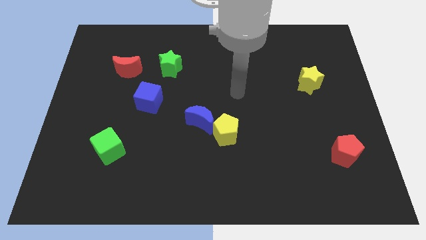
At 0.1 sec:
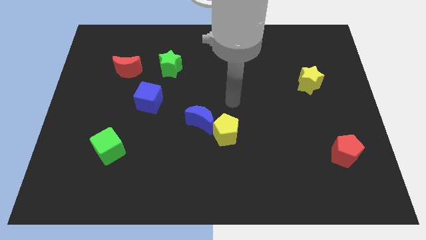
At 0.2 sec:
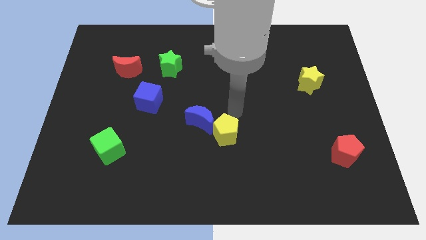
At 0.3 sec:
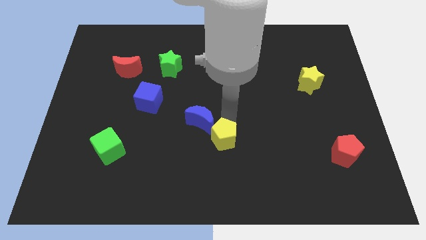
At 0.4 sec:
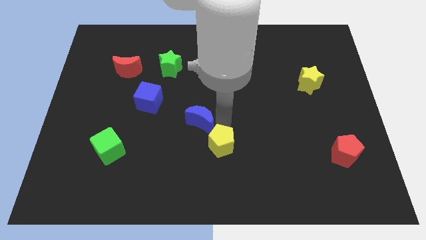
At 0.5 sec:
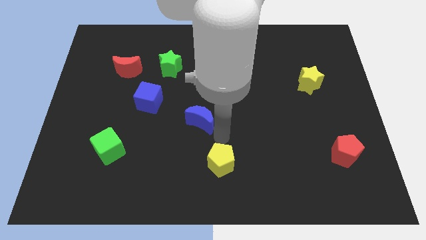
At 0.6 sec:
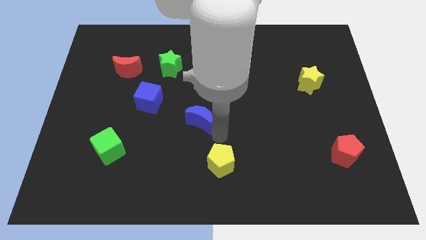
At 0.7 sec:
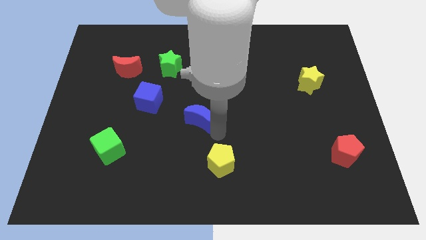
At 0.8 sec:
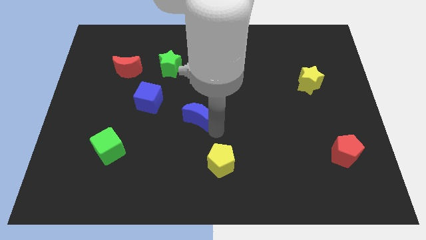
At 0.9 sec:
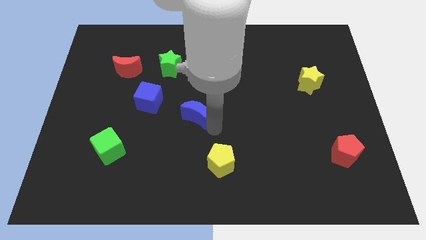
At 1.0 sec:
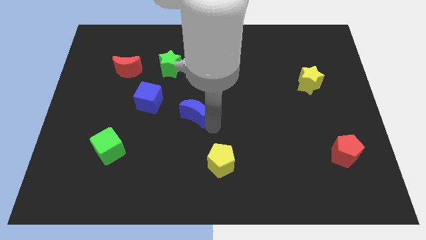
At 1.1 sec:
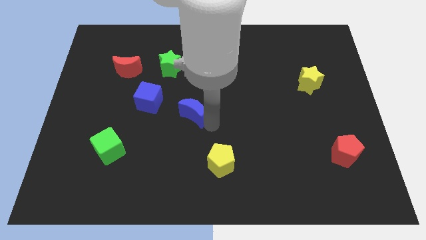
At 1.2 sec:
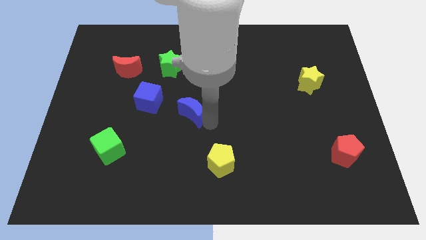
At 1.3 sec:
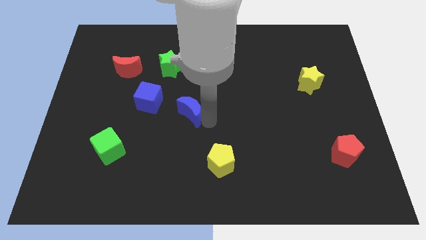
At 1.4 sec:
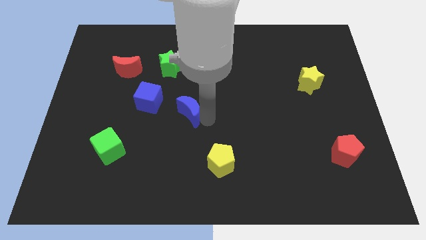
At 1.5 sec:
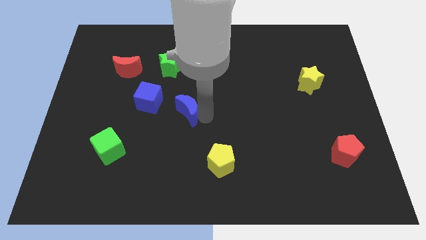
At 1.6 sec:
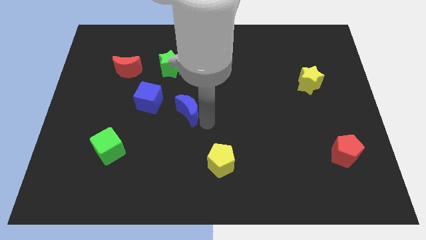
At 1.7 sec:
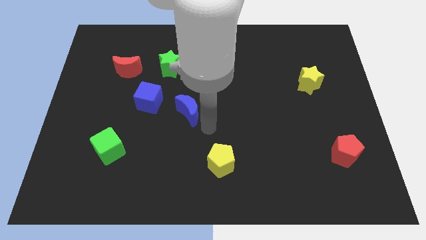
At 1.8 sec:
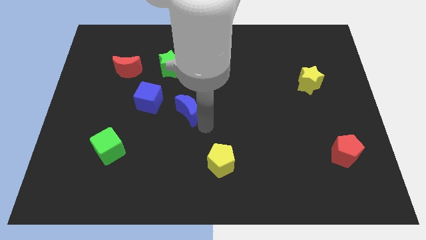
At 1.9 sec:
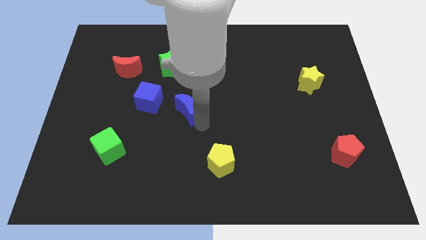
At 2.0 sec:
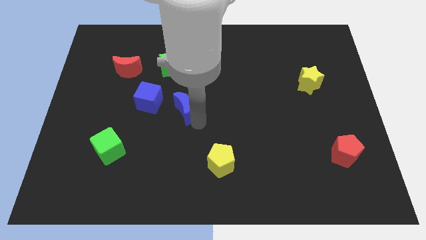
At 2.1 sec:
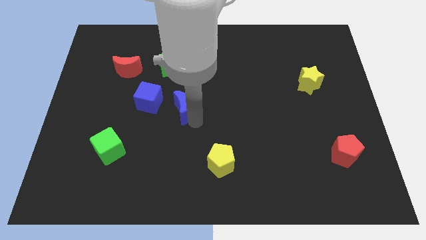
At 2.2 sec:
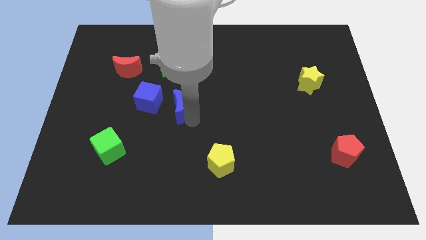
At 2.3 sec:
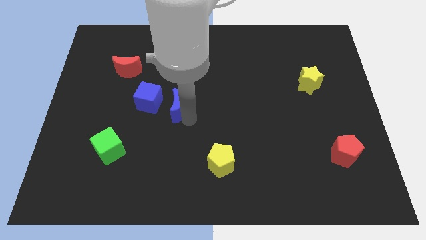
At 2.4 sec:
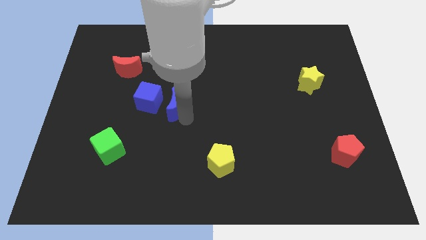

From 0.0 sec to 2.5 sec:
slightly slide the blue moon up and left

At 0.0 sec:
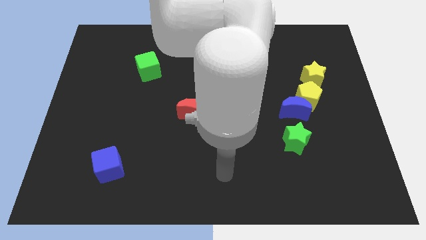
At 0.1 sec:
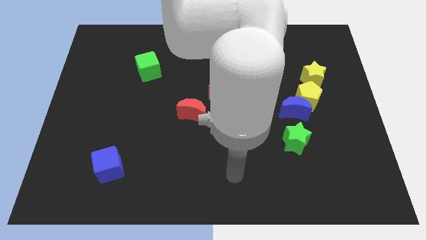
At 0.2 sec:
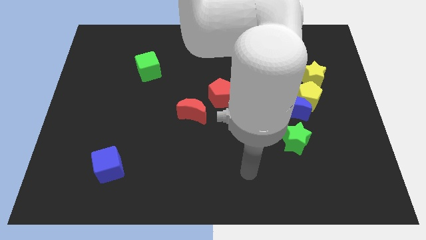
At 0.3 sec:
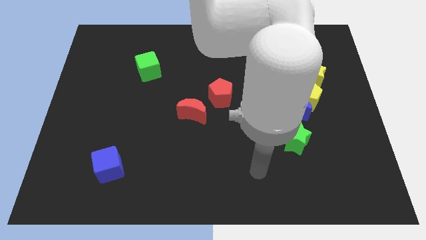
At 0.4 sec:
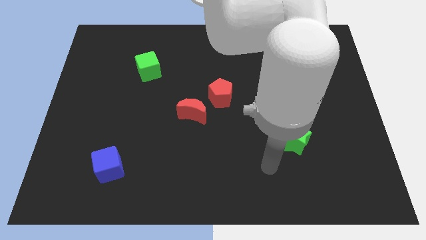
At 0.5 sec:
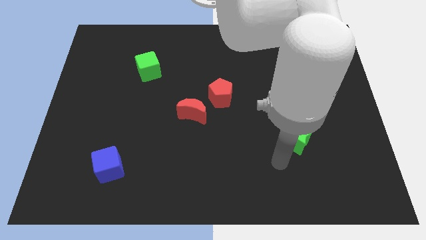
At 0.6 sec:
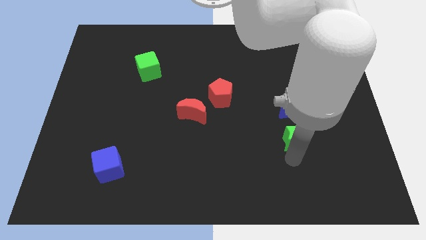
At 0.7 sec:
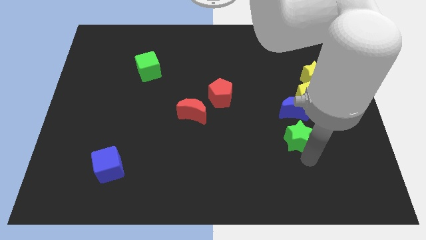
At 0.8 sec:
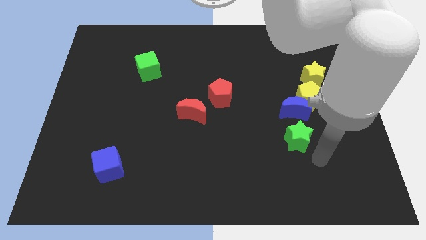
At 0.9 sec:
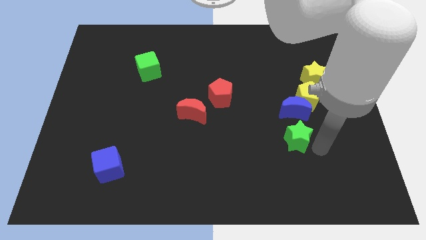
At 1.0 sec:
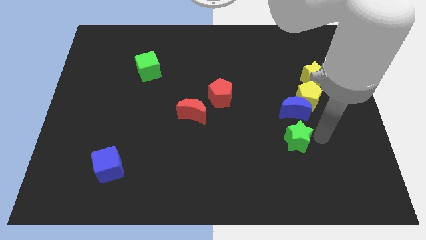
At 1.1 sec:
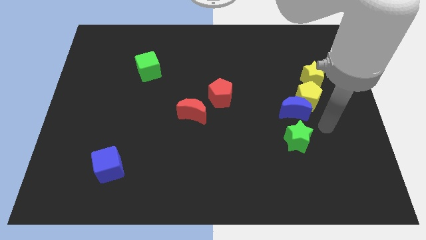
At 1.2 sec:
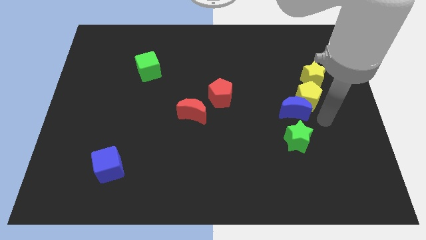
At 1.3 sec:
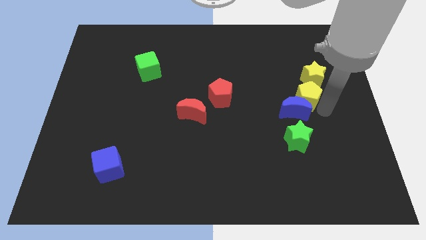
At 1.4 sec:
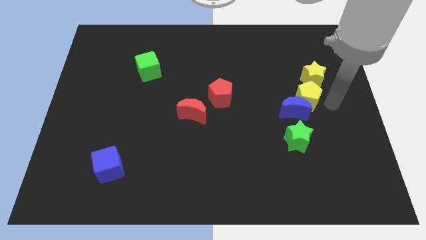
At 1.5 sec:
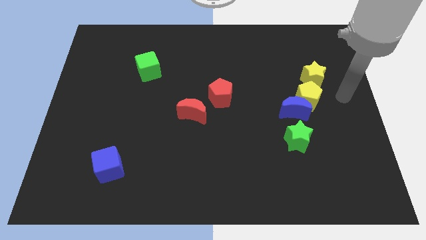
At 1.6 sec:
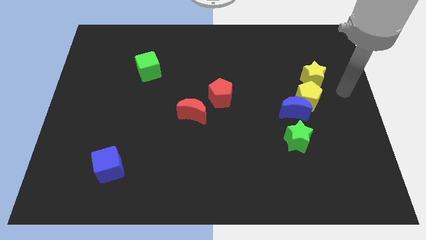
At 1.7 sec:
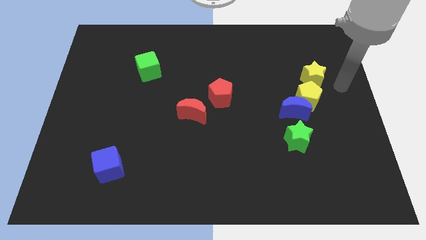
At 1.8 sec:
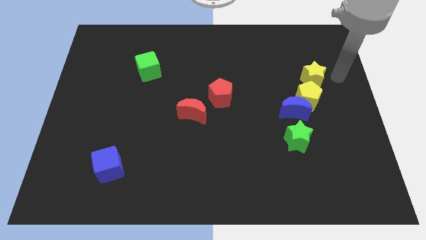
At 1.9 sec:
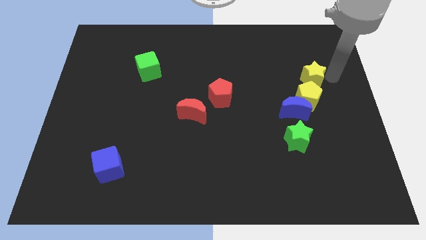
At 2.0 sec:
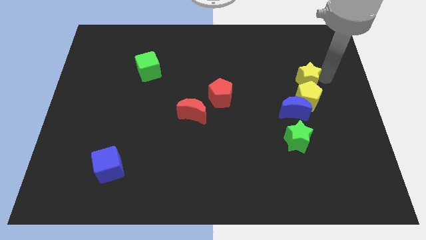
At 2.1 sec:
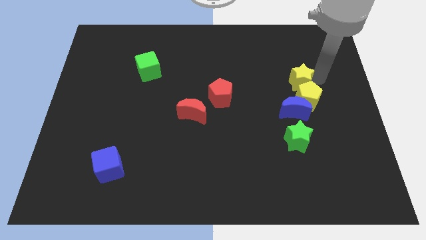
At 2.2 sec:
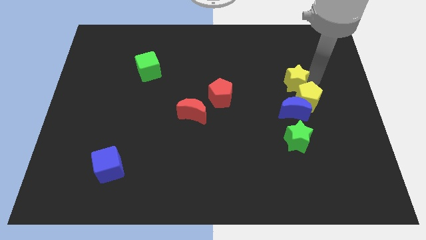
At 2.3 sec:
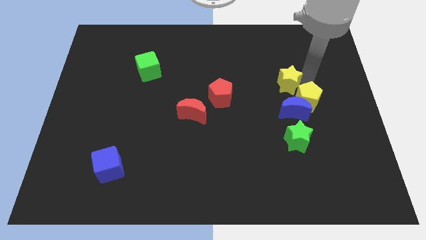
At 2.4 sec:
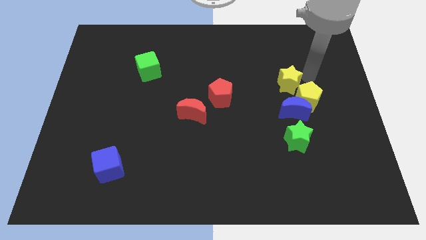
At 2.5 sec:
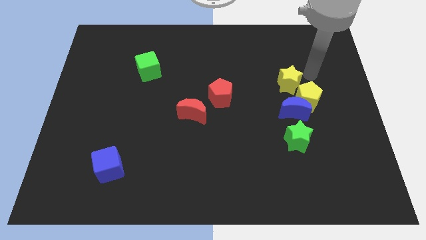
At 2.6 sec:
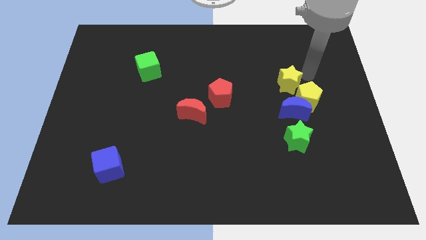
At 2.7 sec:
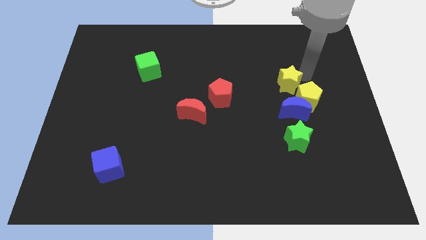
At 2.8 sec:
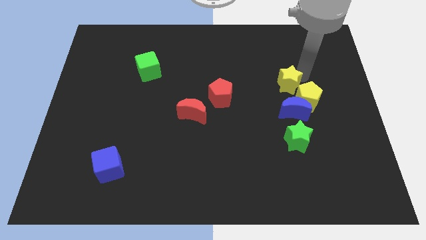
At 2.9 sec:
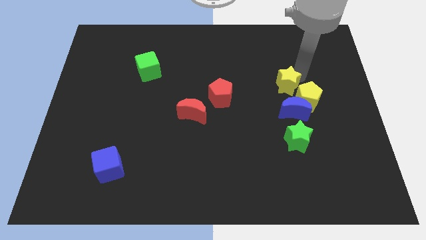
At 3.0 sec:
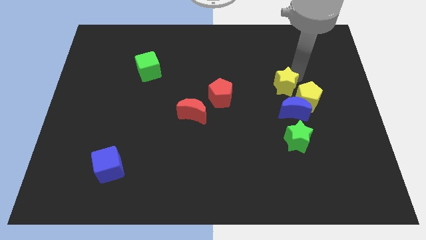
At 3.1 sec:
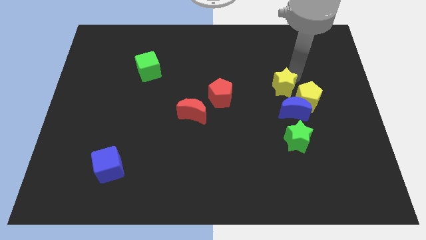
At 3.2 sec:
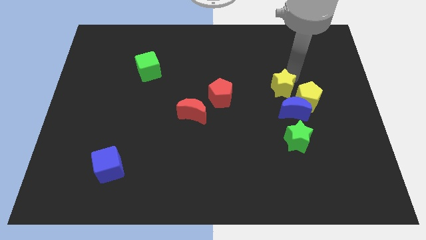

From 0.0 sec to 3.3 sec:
push the yellow star down and then to the left somewhat

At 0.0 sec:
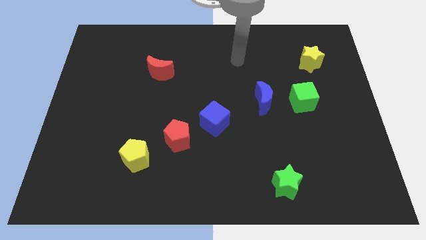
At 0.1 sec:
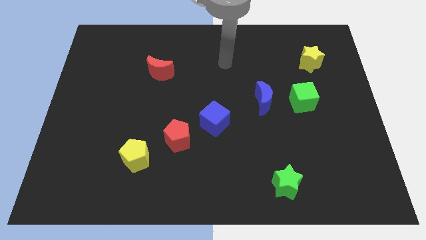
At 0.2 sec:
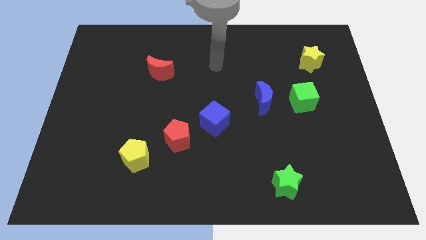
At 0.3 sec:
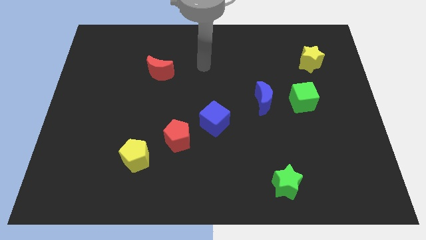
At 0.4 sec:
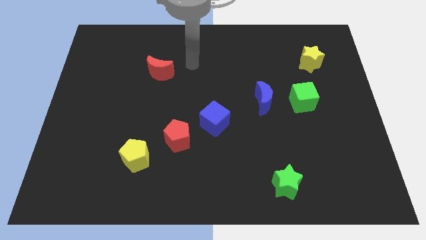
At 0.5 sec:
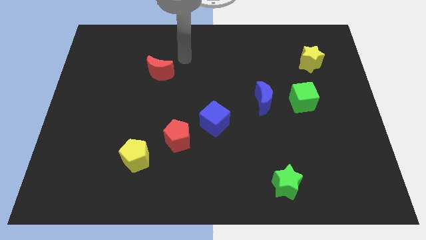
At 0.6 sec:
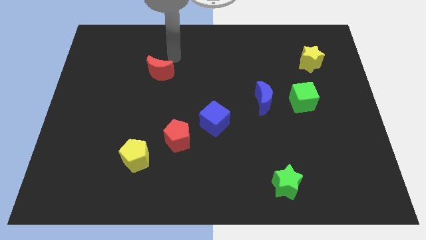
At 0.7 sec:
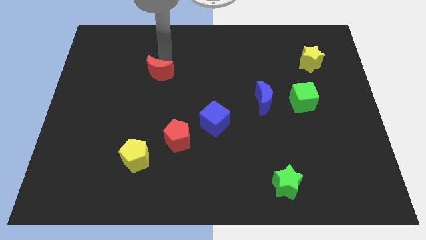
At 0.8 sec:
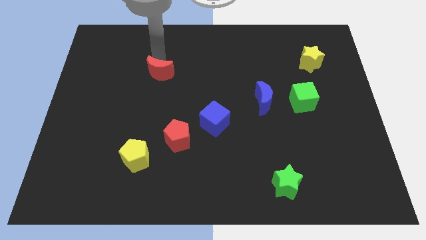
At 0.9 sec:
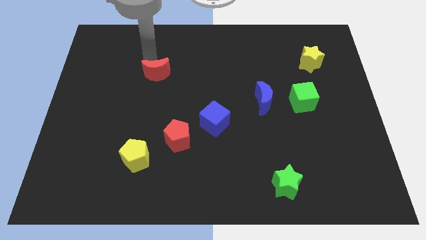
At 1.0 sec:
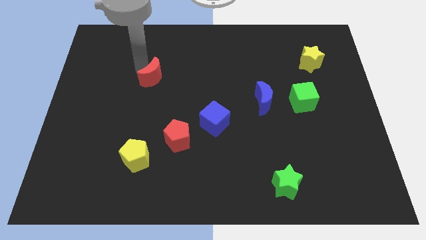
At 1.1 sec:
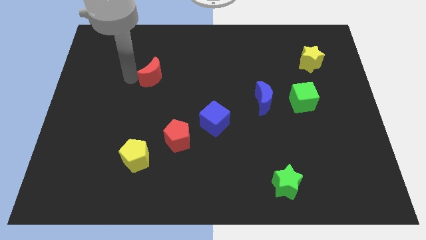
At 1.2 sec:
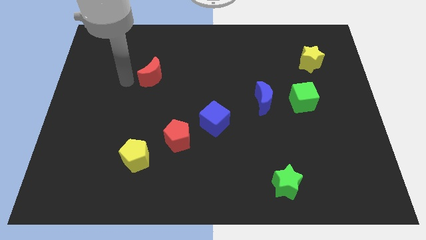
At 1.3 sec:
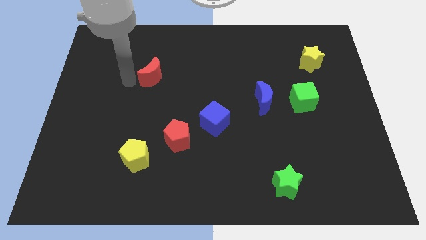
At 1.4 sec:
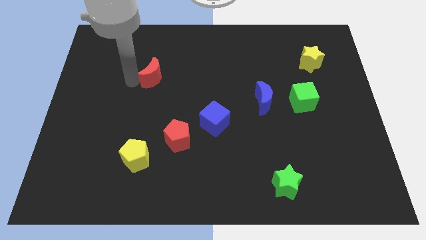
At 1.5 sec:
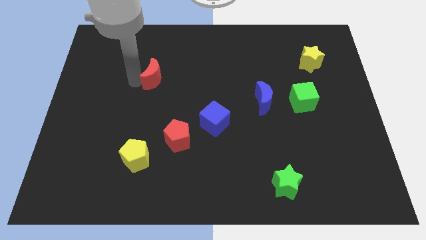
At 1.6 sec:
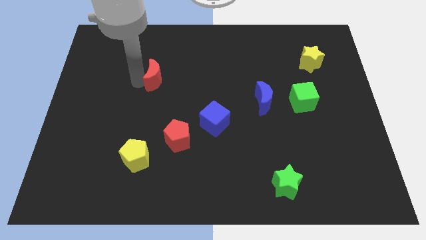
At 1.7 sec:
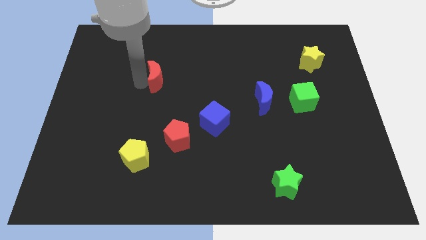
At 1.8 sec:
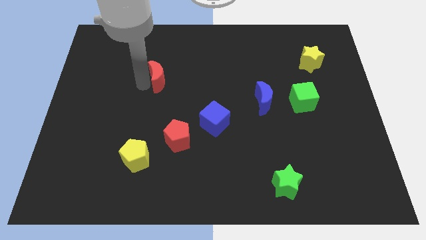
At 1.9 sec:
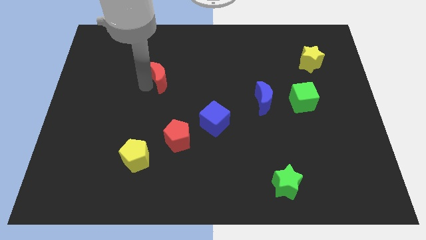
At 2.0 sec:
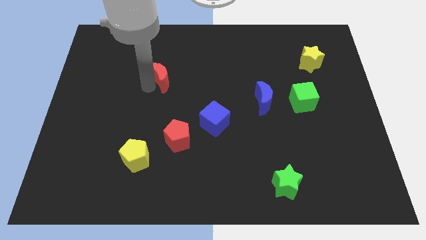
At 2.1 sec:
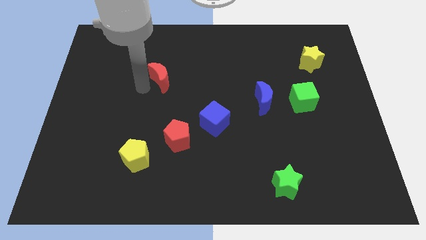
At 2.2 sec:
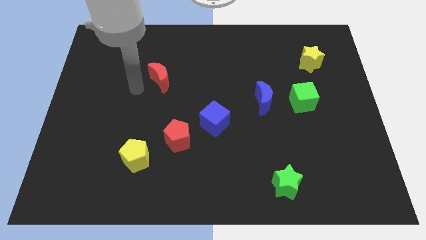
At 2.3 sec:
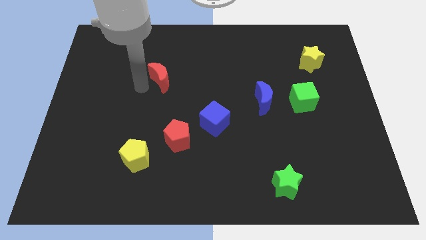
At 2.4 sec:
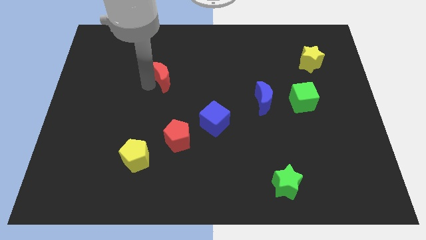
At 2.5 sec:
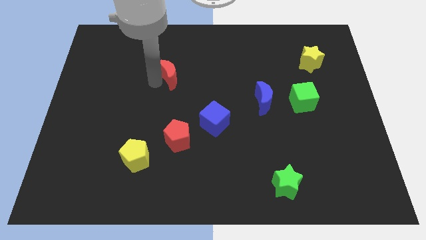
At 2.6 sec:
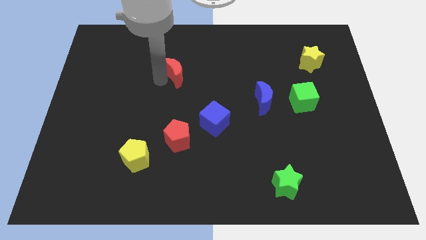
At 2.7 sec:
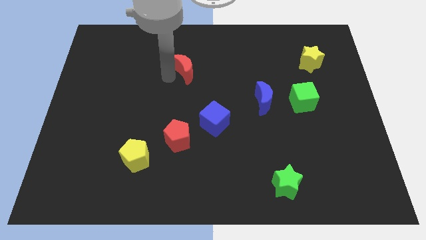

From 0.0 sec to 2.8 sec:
slightly slide the red moon right
